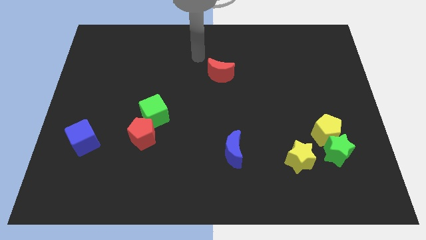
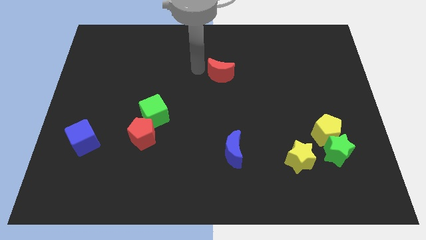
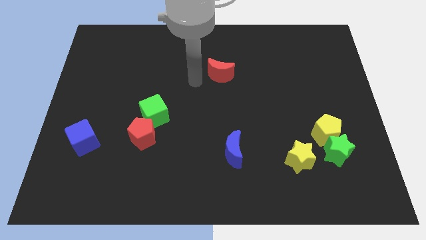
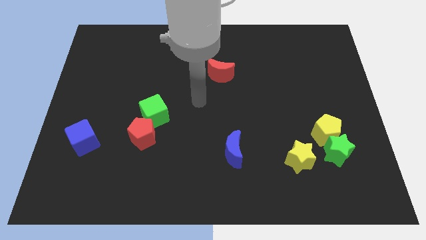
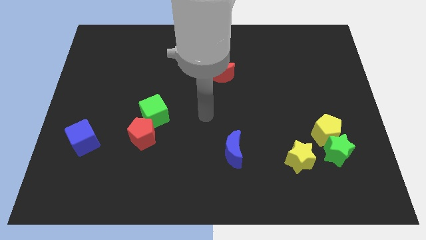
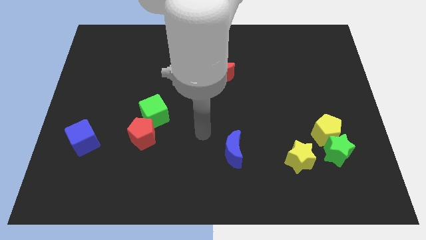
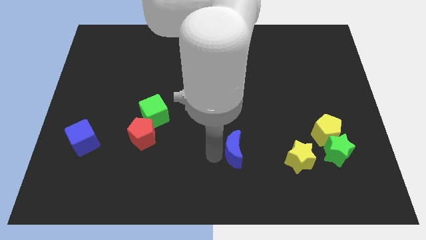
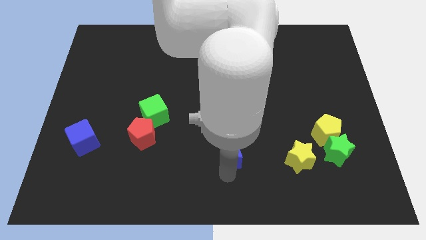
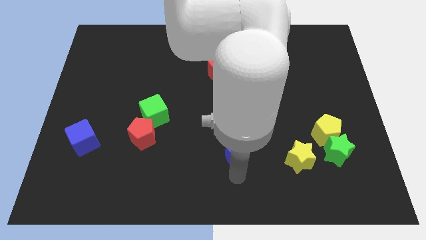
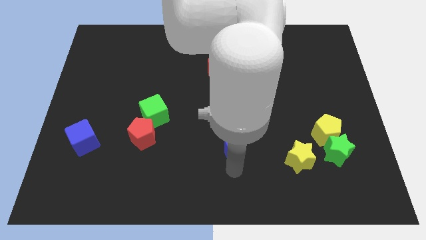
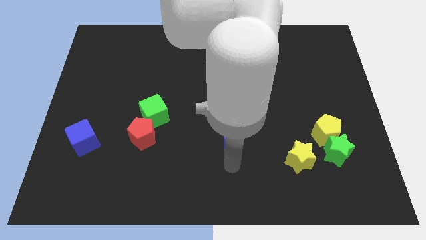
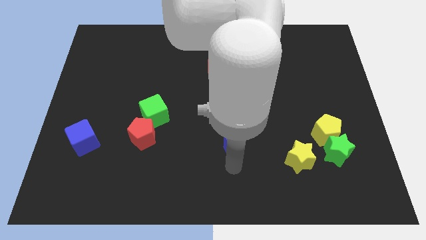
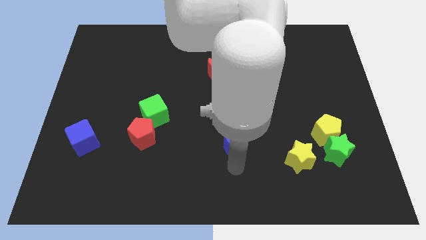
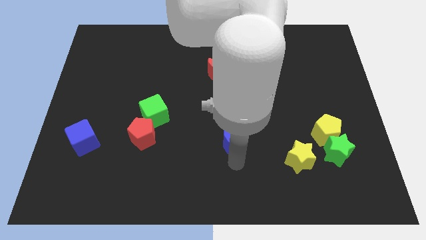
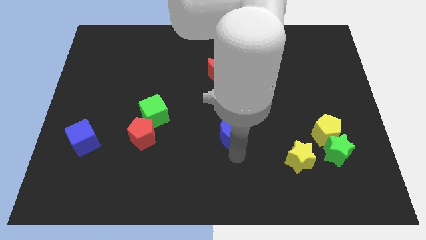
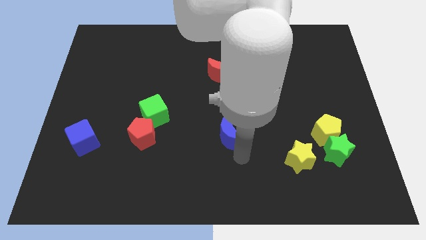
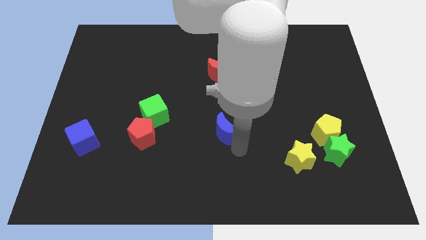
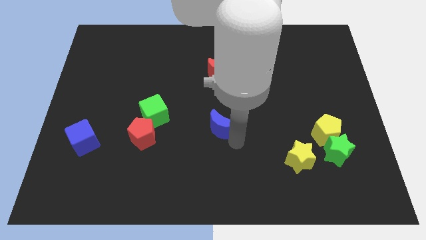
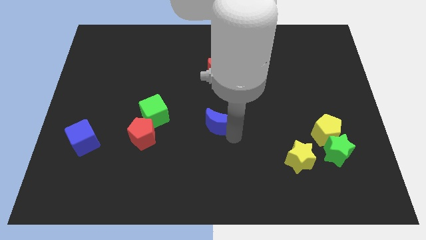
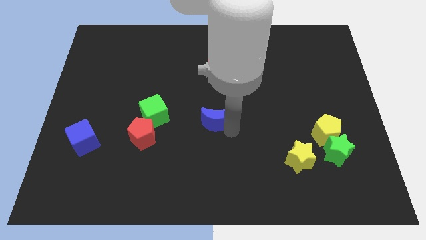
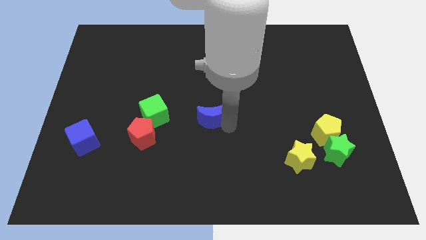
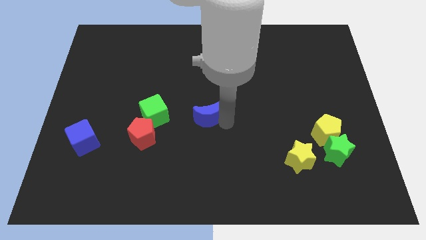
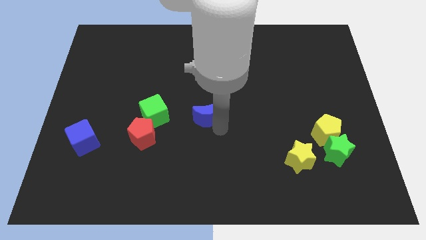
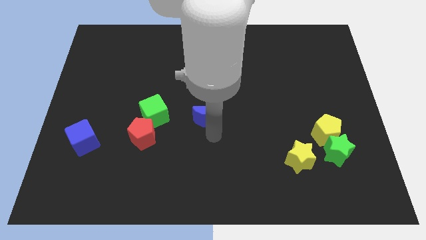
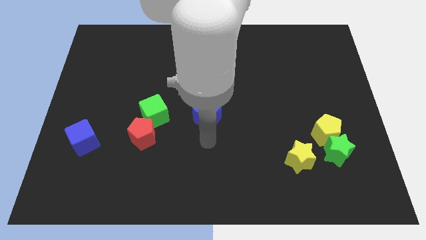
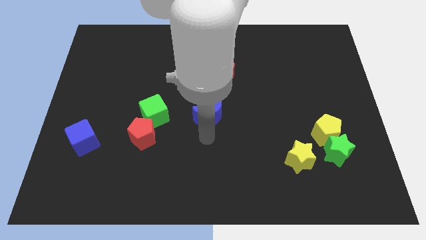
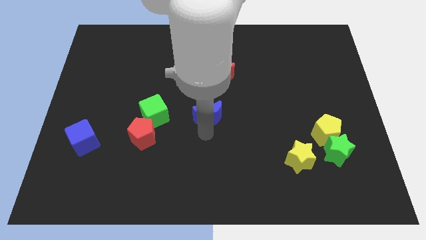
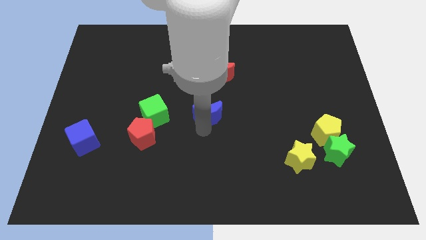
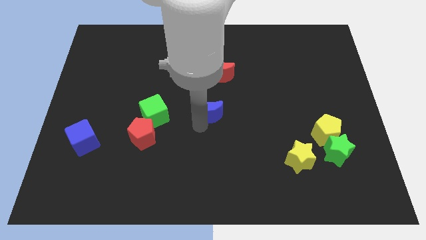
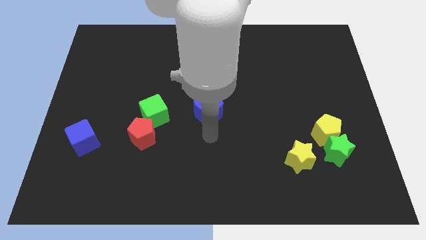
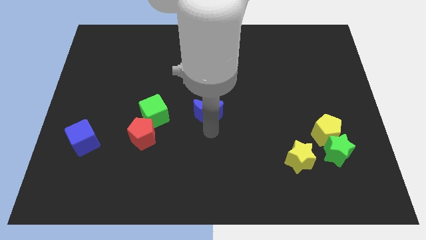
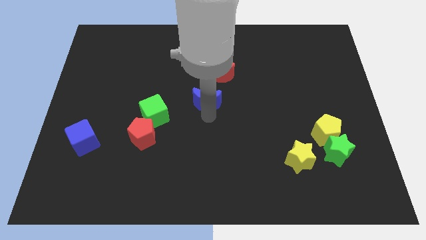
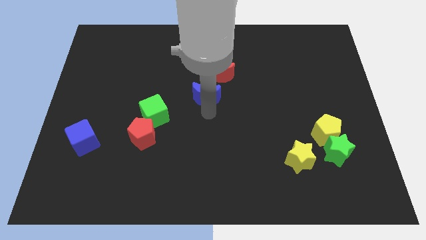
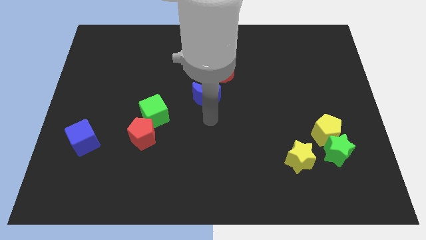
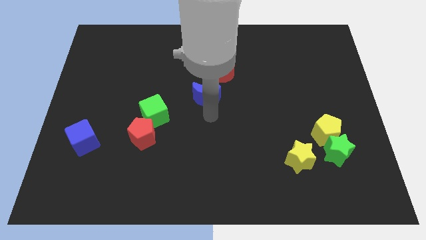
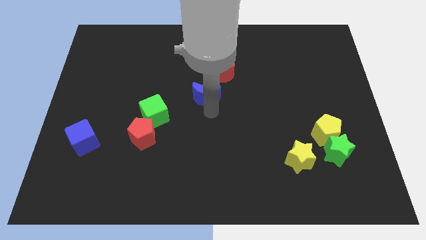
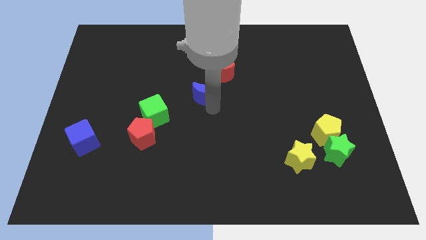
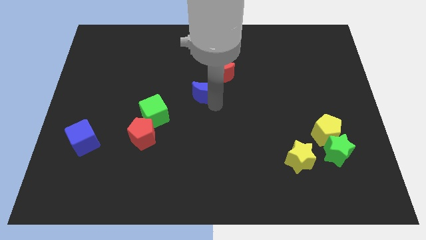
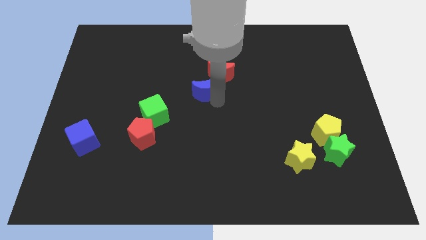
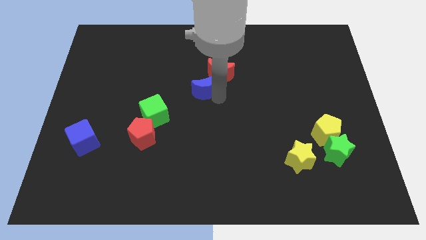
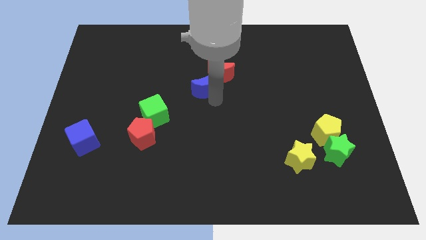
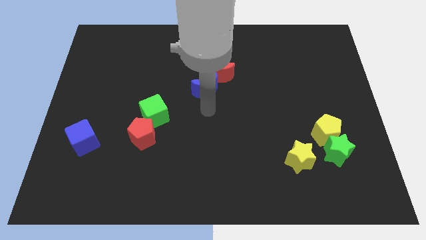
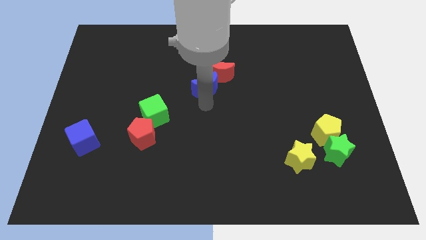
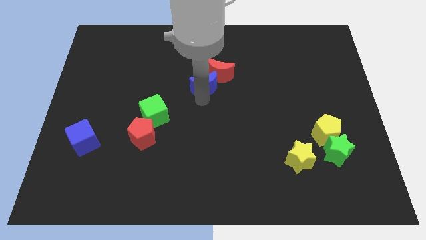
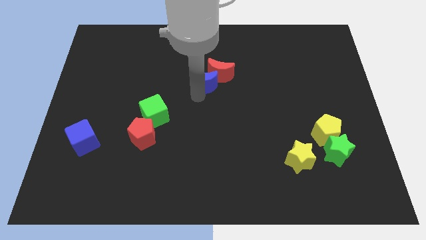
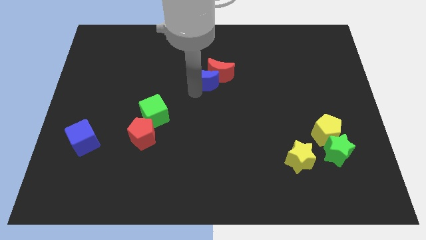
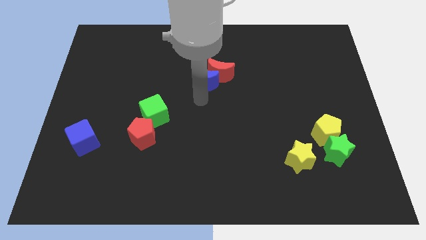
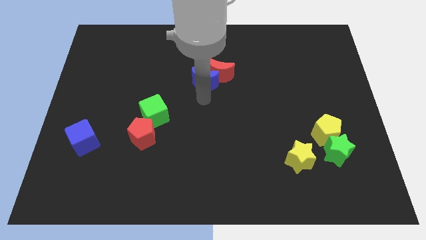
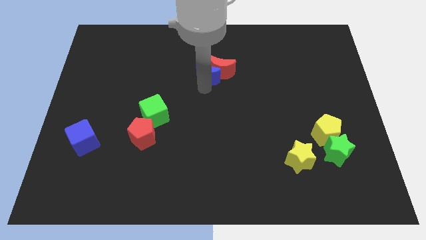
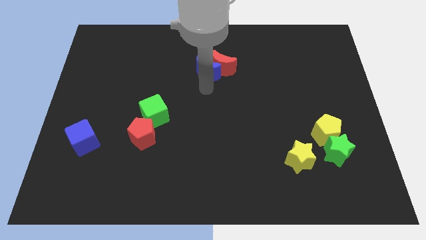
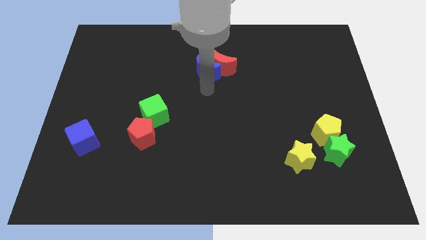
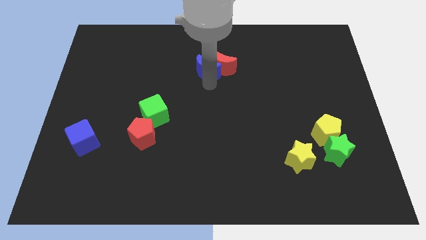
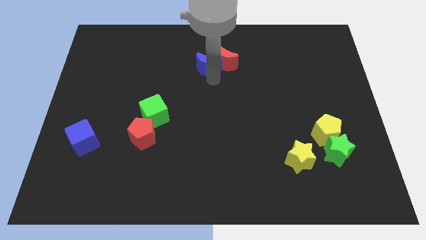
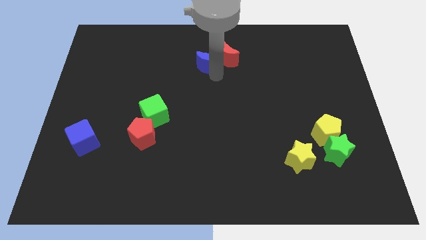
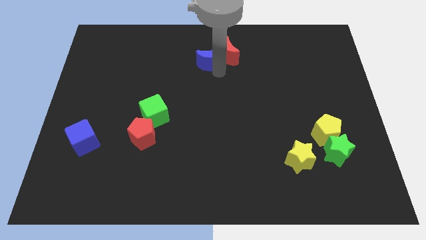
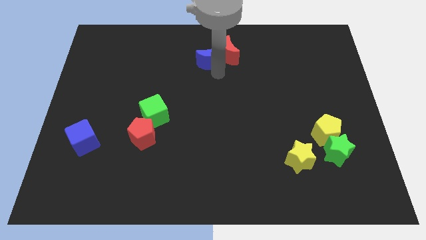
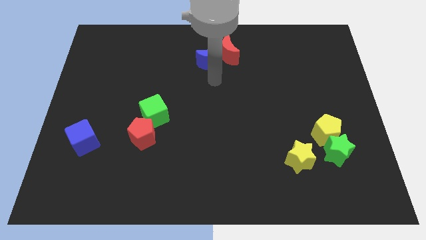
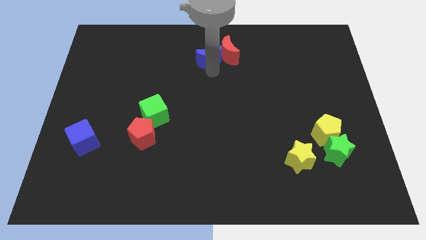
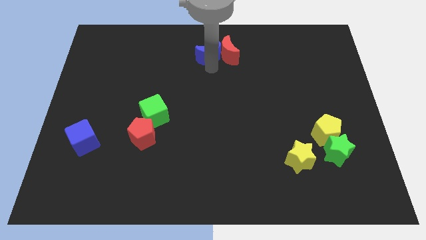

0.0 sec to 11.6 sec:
push the blue moon to the top

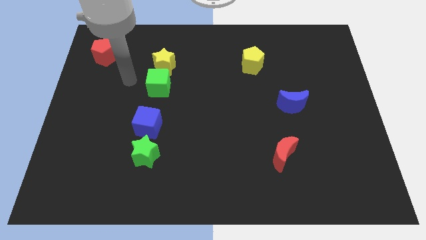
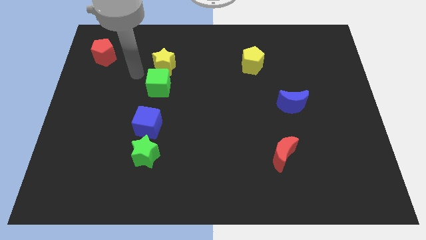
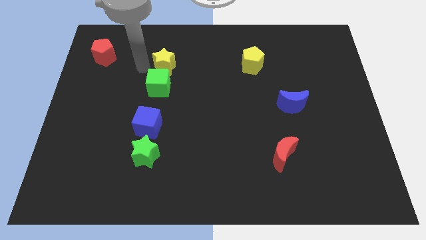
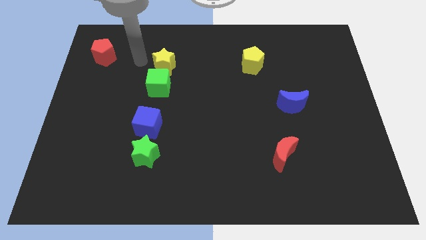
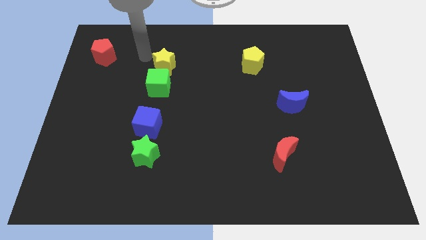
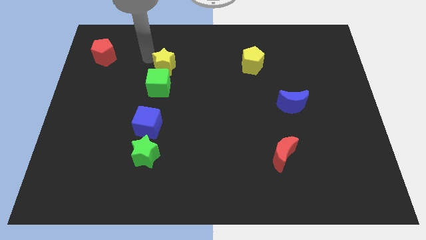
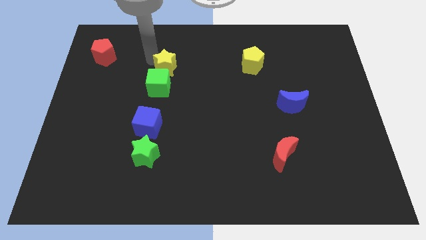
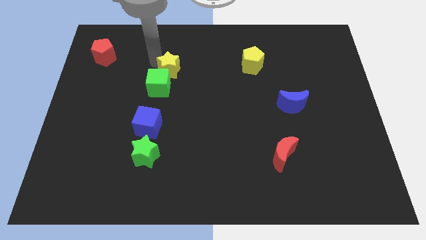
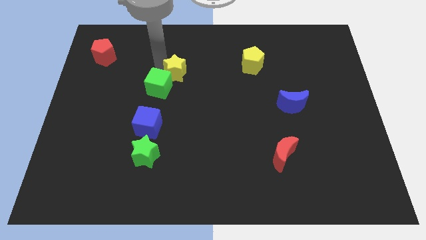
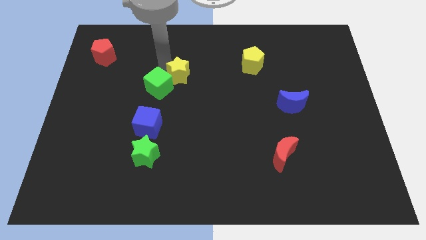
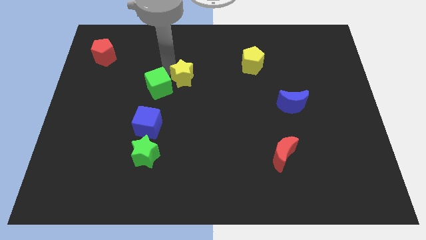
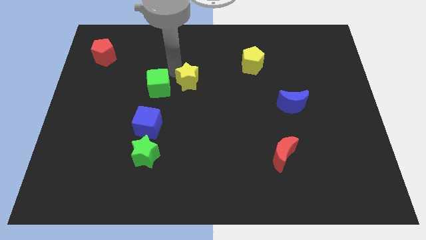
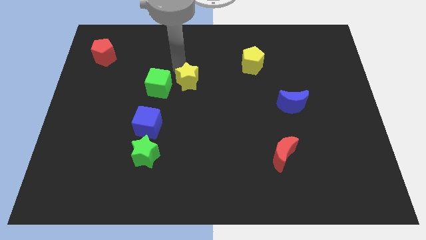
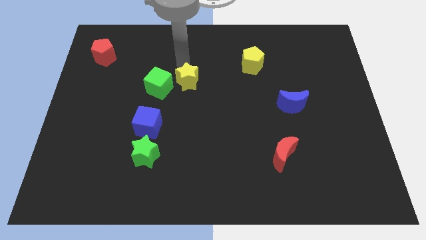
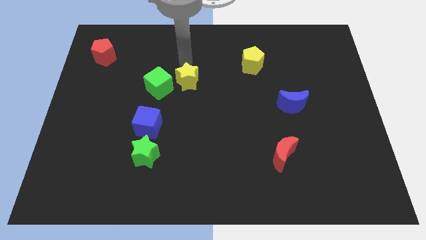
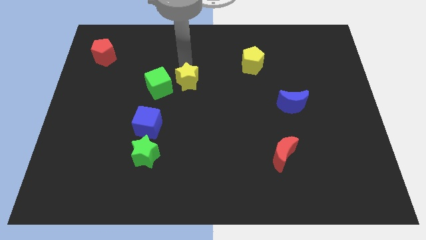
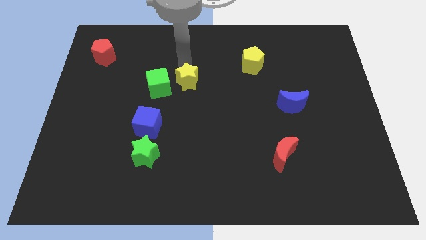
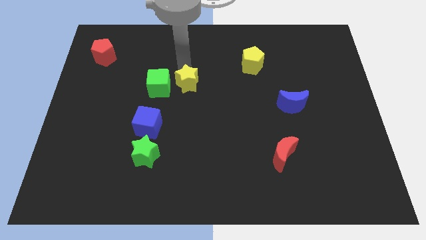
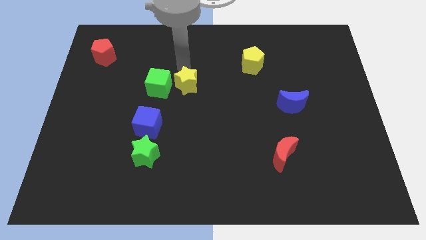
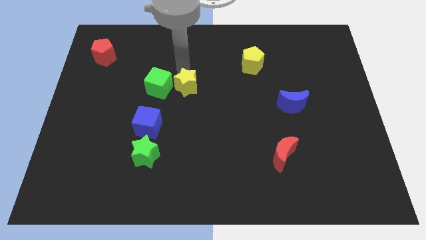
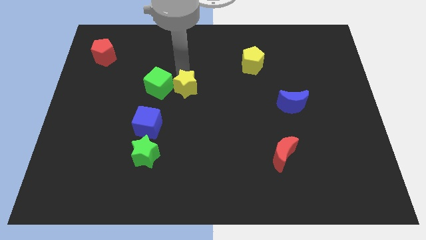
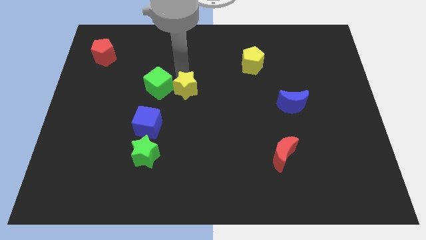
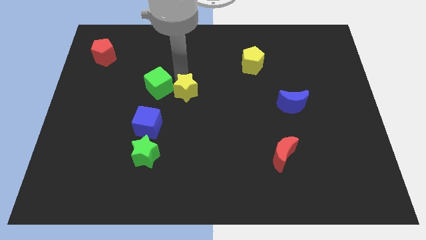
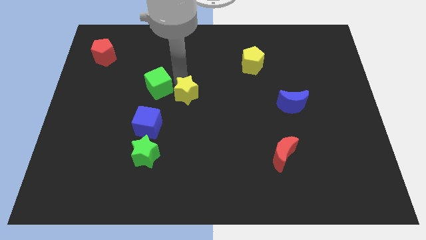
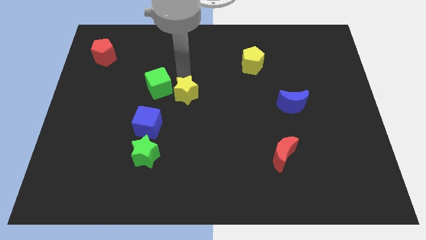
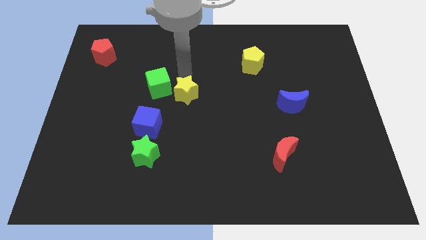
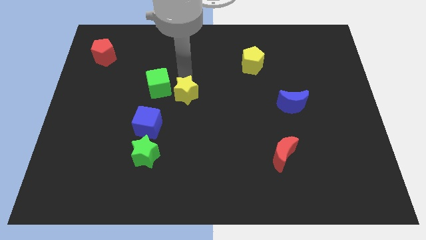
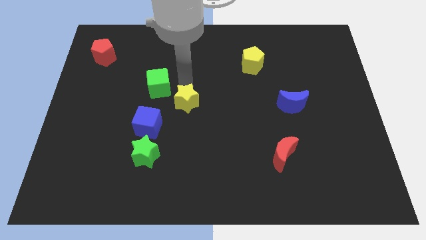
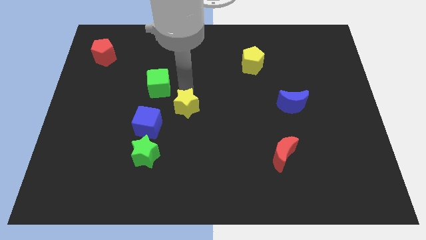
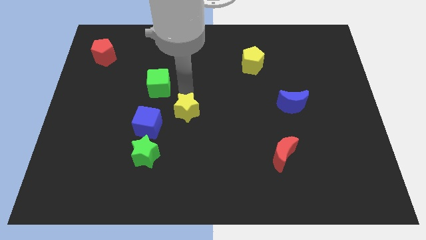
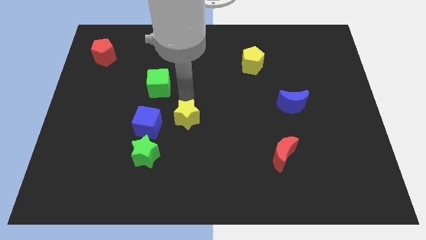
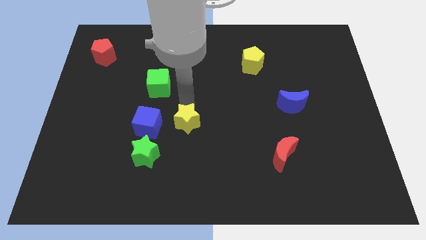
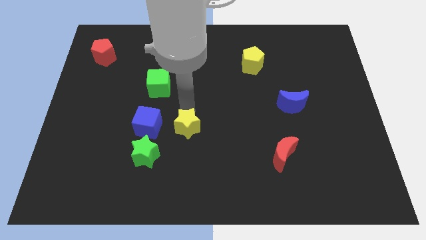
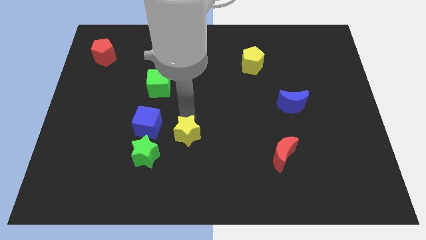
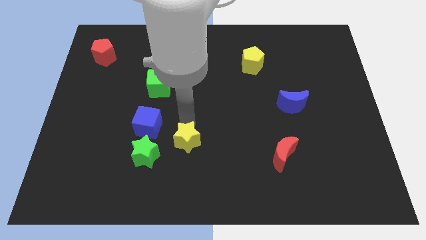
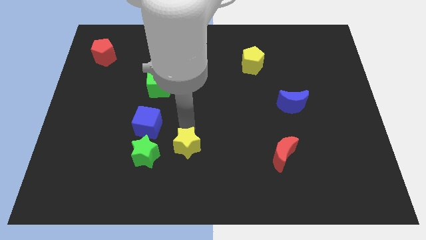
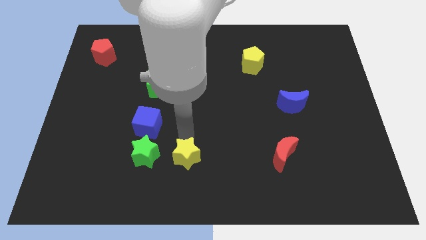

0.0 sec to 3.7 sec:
push the yellow star to the bottom
